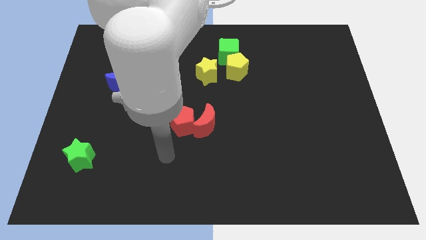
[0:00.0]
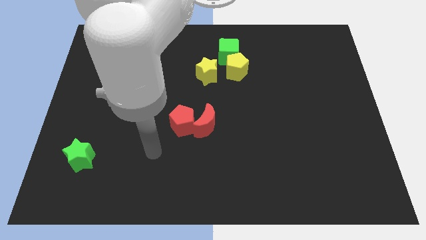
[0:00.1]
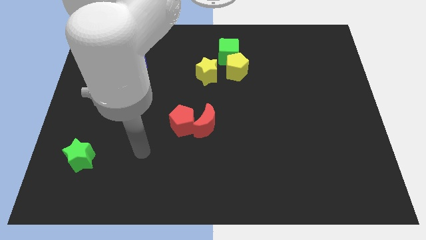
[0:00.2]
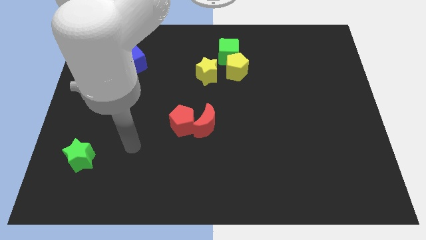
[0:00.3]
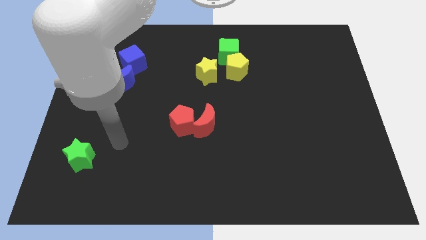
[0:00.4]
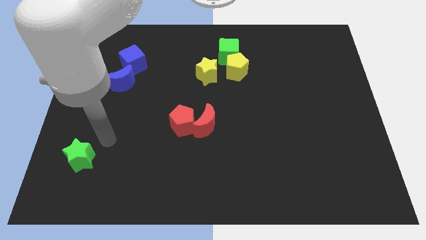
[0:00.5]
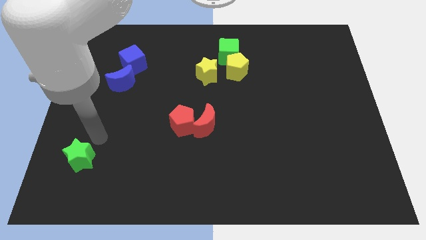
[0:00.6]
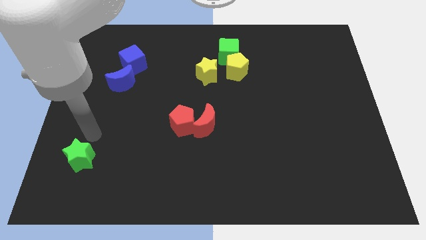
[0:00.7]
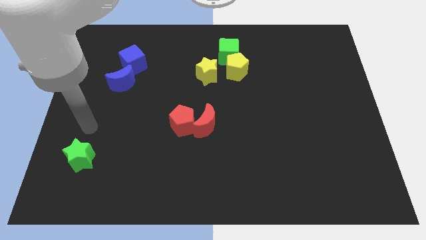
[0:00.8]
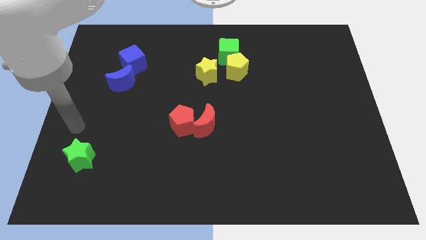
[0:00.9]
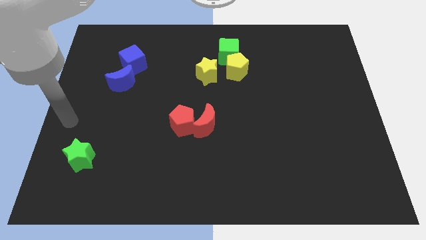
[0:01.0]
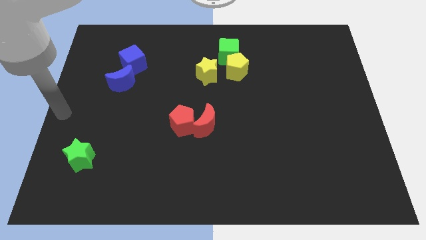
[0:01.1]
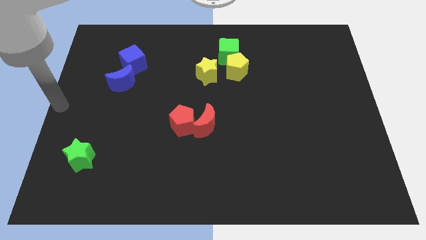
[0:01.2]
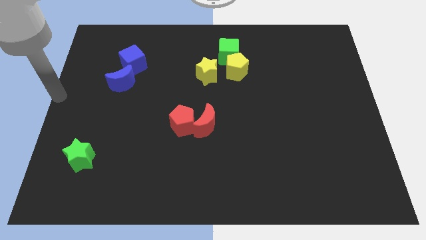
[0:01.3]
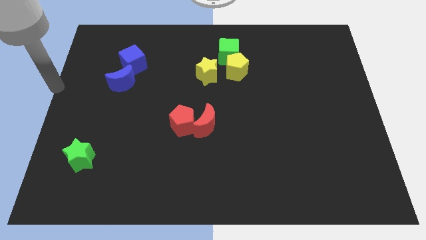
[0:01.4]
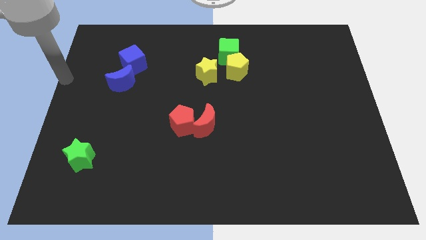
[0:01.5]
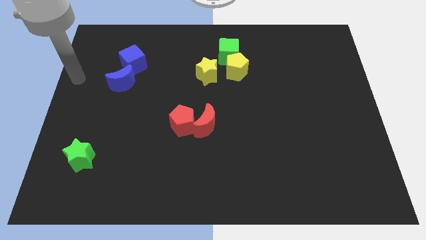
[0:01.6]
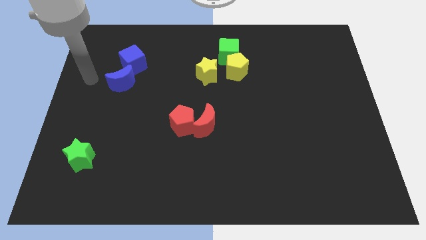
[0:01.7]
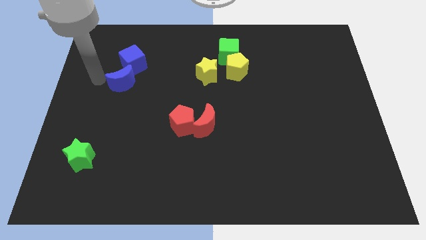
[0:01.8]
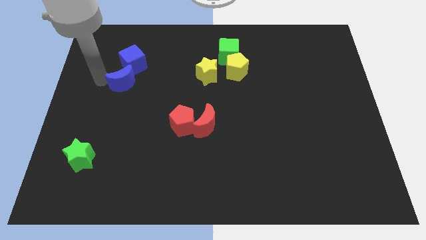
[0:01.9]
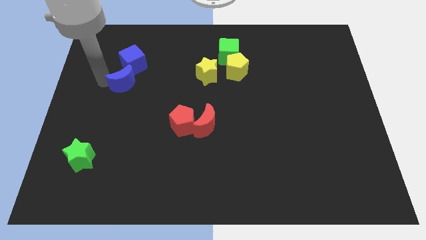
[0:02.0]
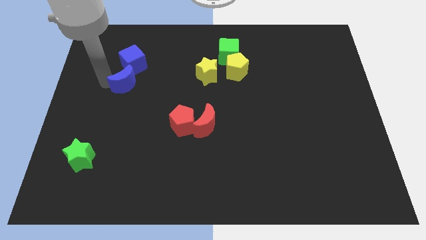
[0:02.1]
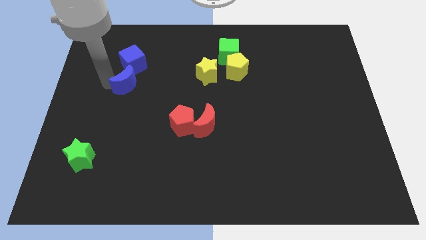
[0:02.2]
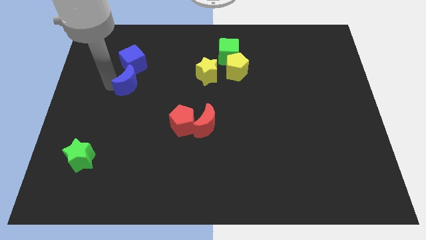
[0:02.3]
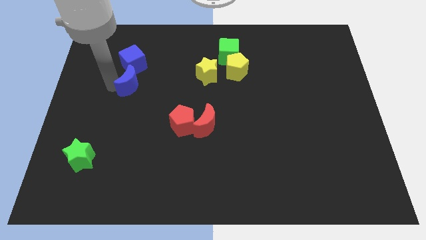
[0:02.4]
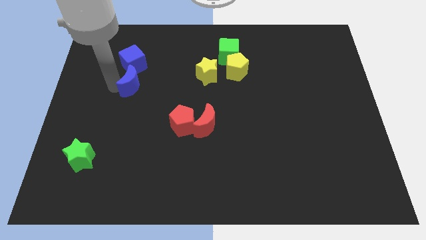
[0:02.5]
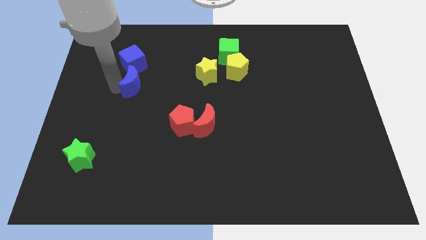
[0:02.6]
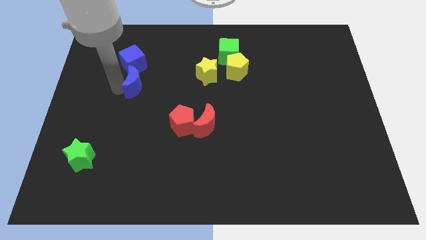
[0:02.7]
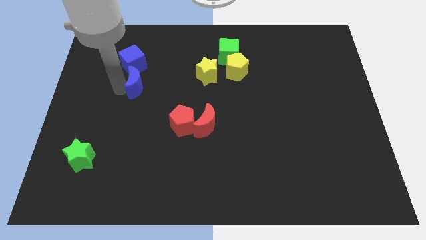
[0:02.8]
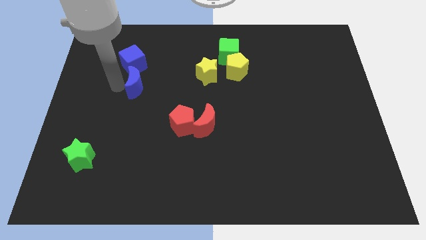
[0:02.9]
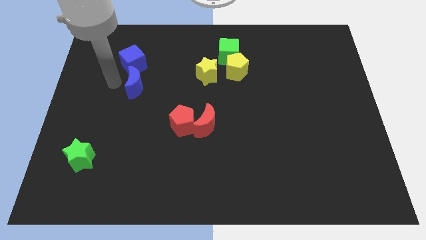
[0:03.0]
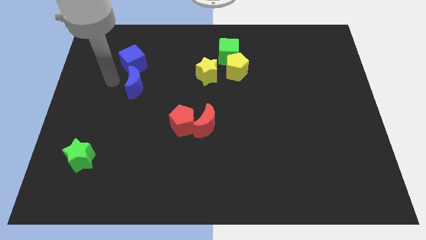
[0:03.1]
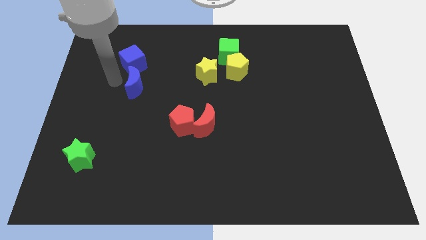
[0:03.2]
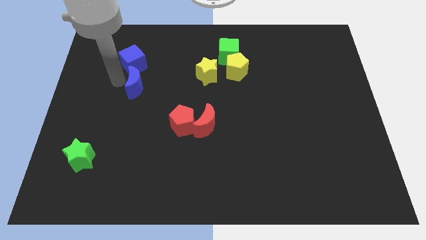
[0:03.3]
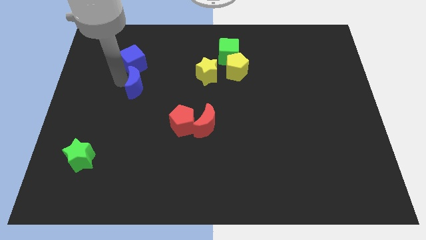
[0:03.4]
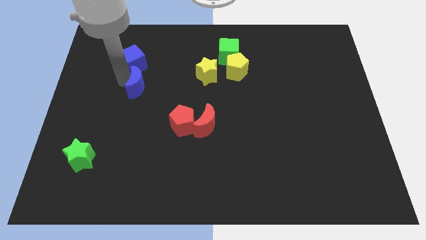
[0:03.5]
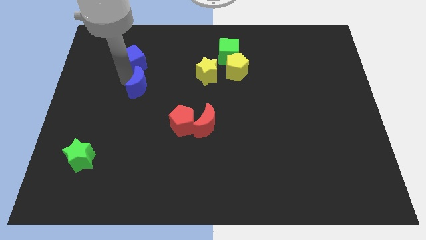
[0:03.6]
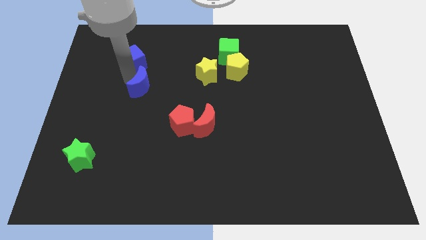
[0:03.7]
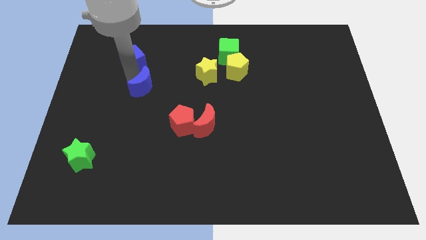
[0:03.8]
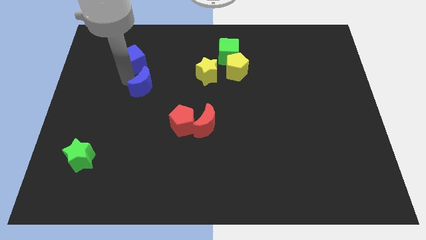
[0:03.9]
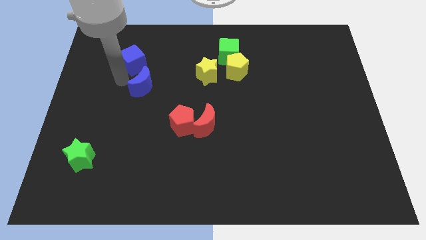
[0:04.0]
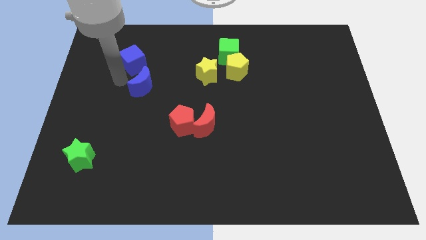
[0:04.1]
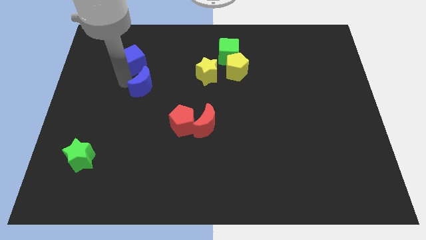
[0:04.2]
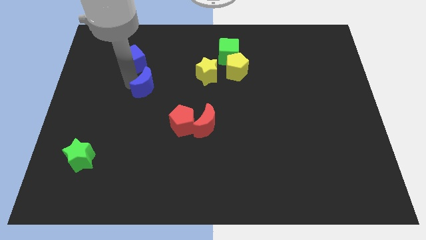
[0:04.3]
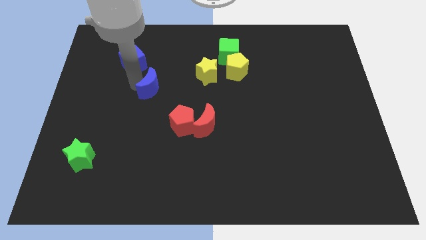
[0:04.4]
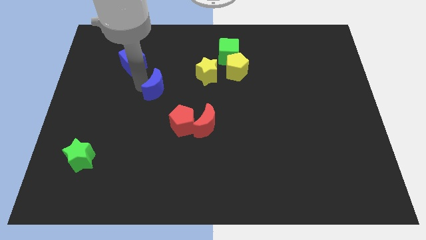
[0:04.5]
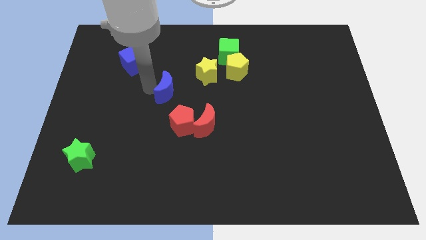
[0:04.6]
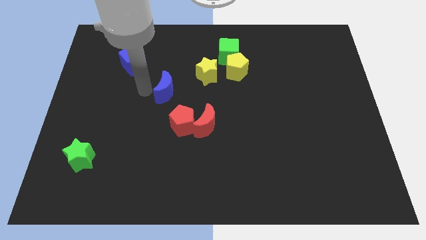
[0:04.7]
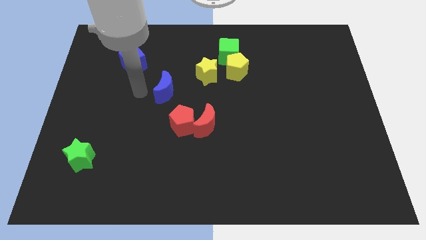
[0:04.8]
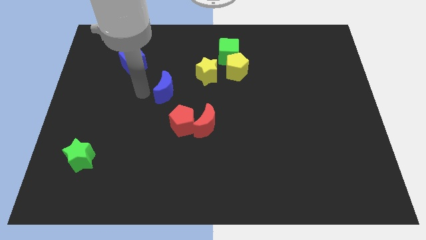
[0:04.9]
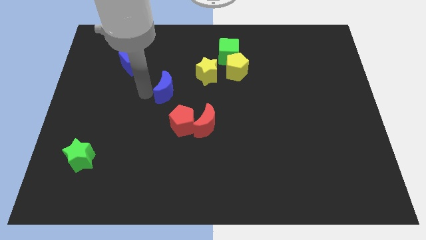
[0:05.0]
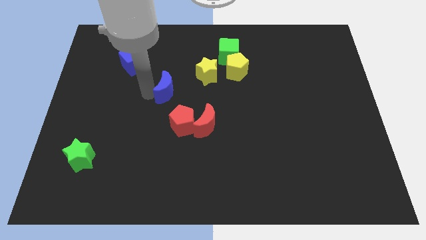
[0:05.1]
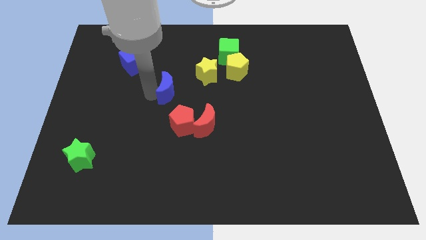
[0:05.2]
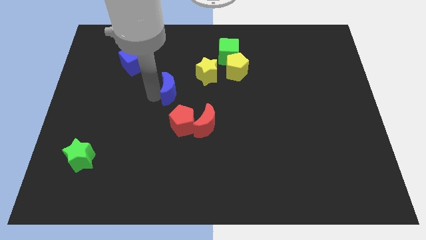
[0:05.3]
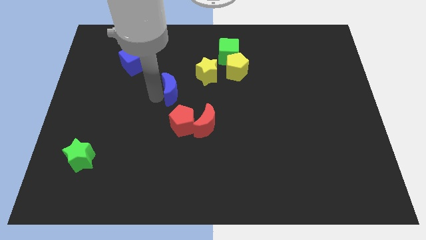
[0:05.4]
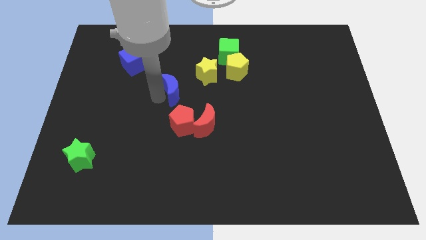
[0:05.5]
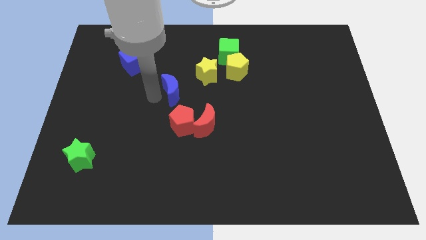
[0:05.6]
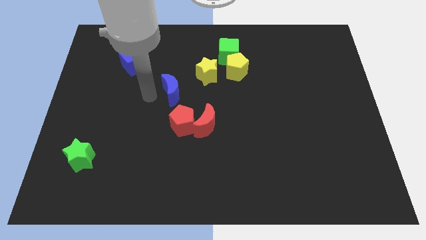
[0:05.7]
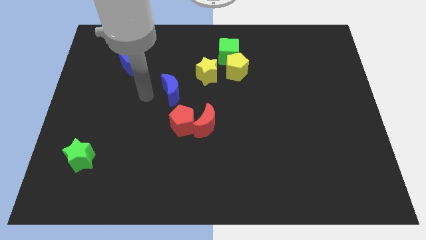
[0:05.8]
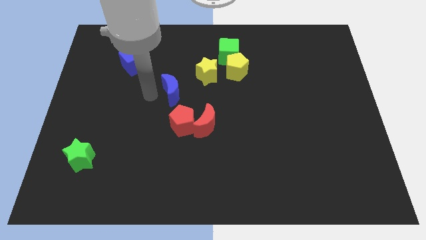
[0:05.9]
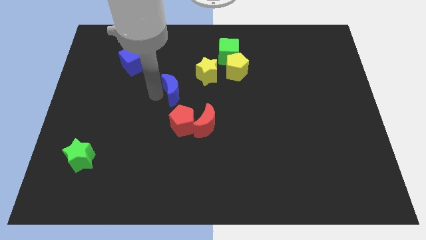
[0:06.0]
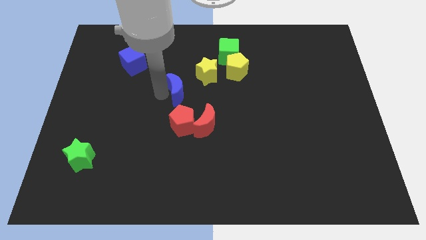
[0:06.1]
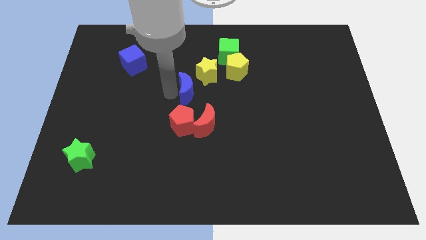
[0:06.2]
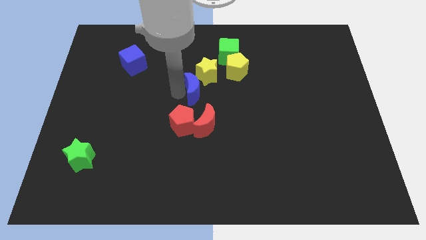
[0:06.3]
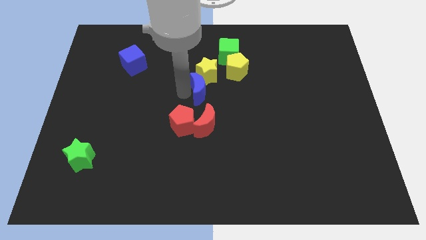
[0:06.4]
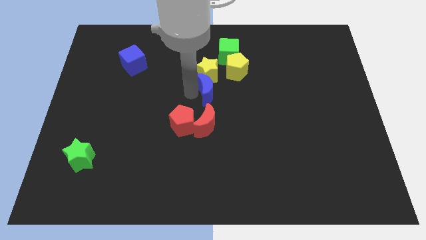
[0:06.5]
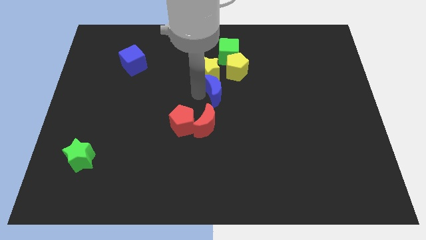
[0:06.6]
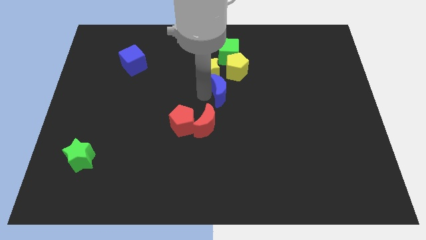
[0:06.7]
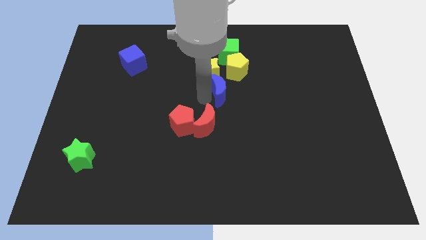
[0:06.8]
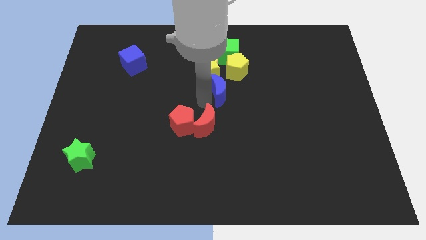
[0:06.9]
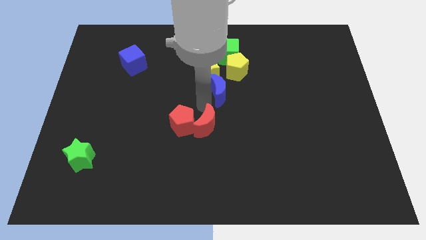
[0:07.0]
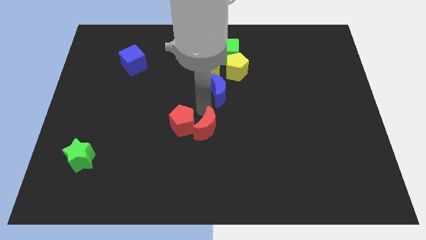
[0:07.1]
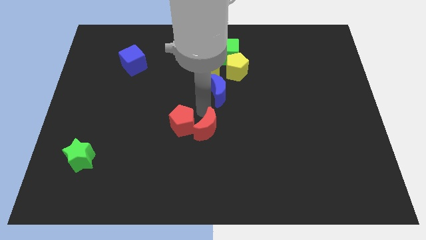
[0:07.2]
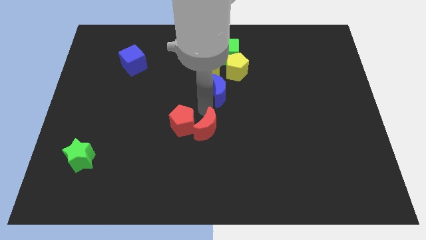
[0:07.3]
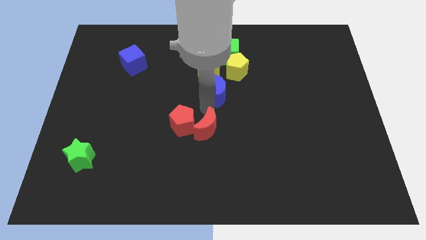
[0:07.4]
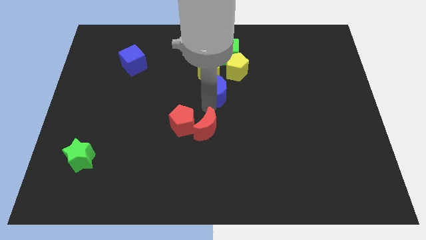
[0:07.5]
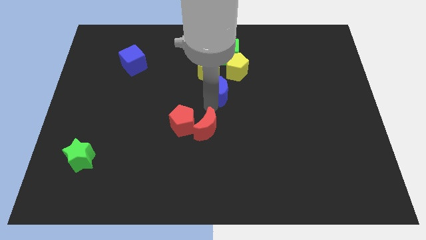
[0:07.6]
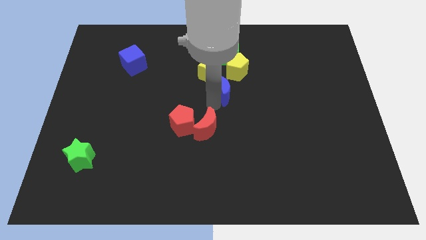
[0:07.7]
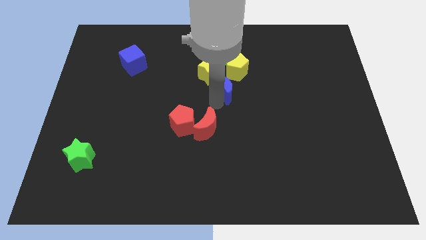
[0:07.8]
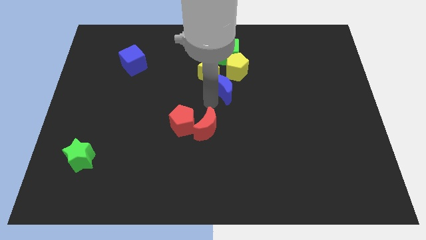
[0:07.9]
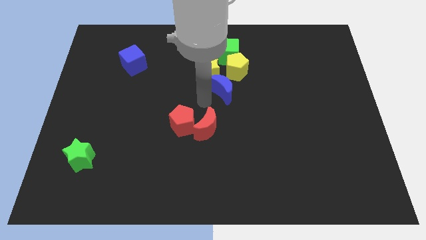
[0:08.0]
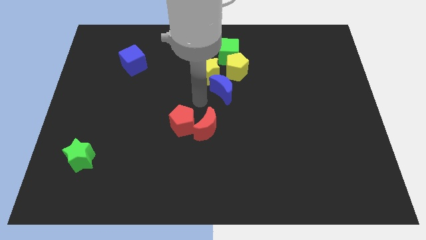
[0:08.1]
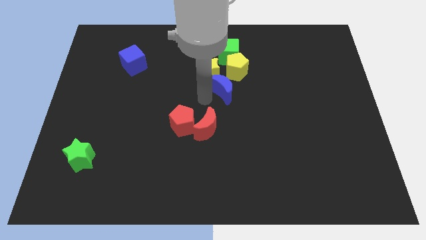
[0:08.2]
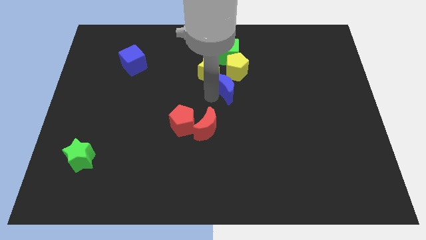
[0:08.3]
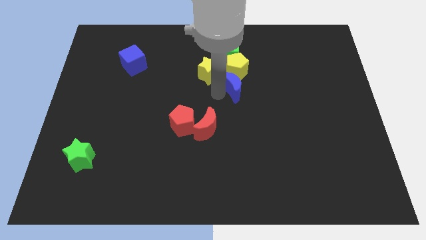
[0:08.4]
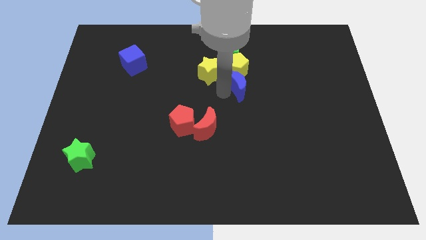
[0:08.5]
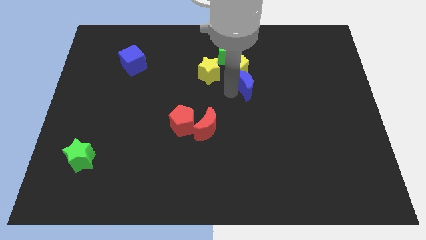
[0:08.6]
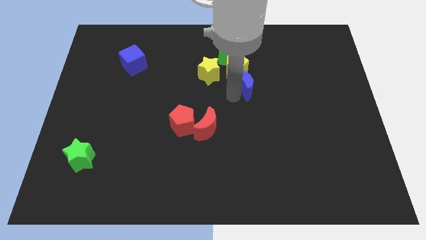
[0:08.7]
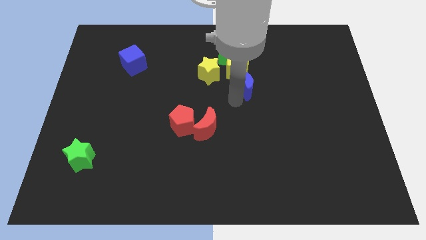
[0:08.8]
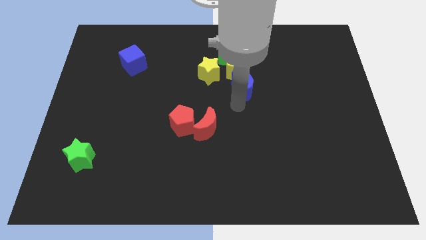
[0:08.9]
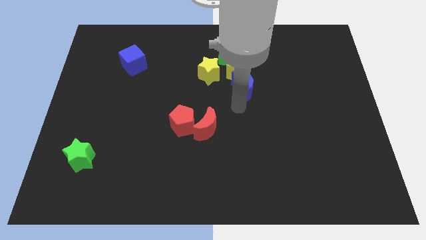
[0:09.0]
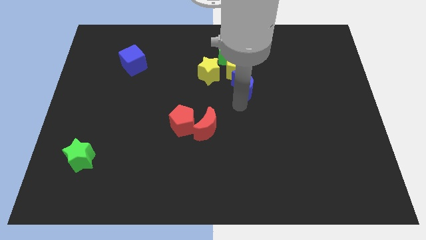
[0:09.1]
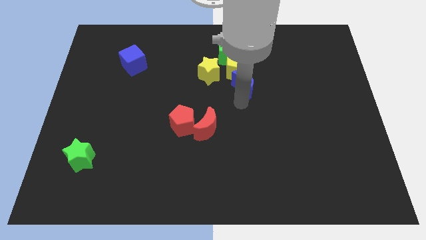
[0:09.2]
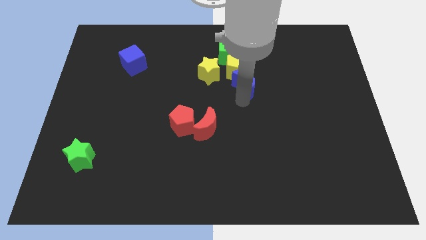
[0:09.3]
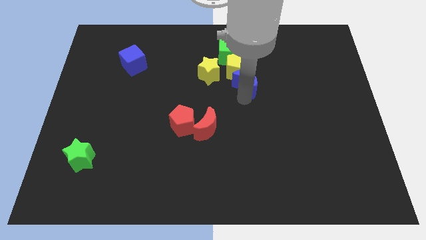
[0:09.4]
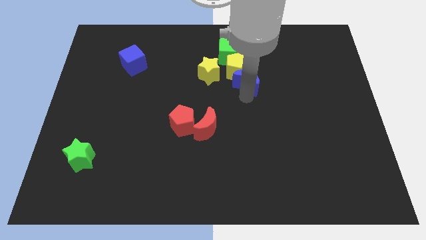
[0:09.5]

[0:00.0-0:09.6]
push the blue moon diagonally down and to the right of the green cube
